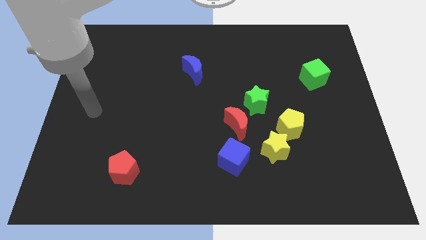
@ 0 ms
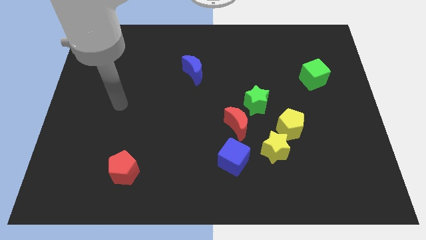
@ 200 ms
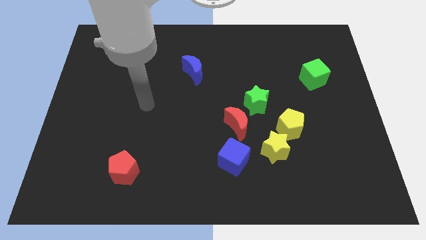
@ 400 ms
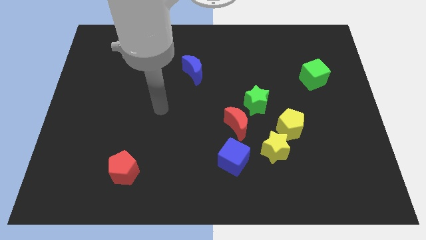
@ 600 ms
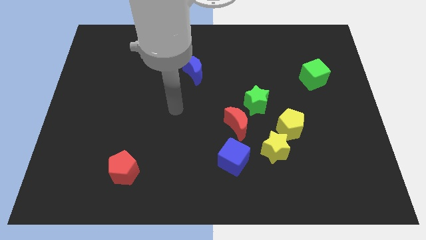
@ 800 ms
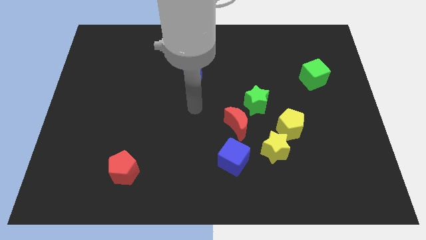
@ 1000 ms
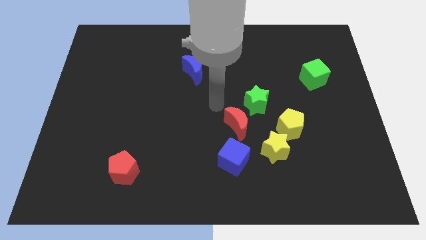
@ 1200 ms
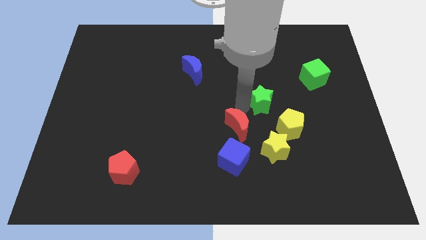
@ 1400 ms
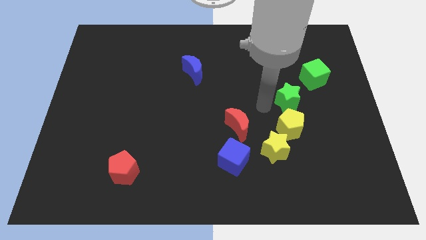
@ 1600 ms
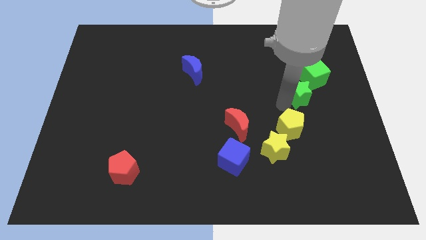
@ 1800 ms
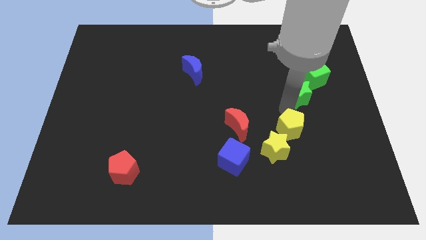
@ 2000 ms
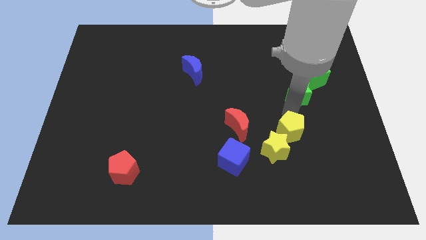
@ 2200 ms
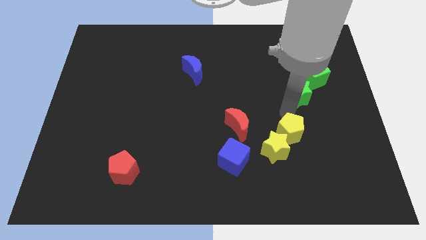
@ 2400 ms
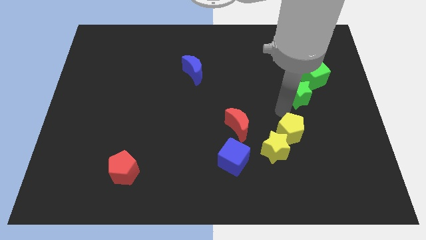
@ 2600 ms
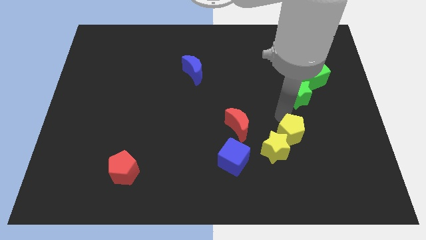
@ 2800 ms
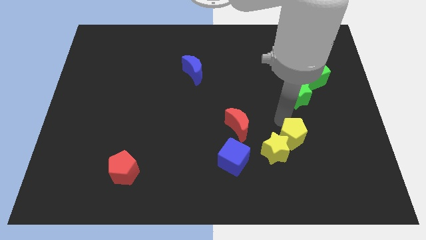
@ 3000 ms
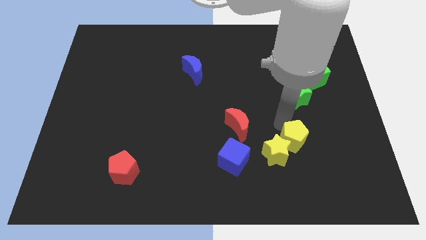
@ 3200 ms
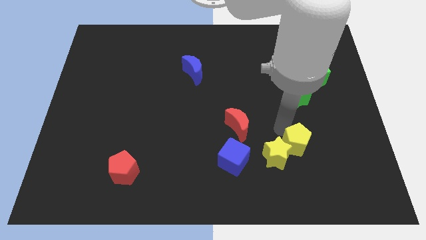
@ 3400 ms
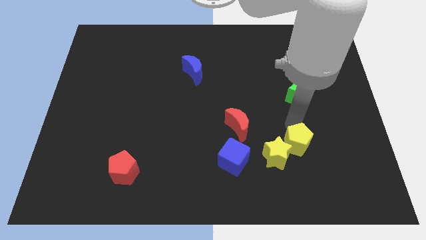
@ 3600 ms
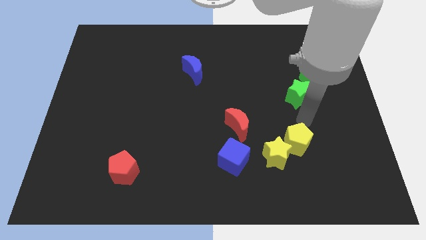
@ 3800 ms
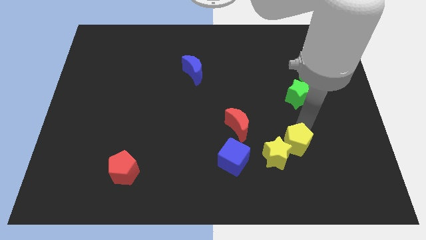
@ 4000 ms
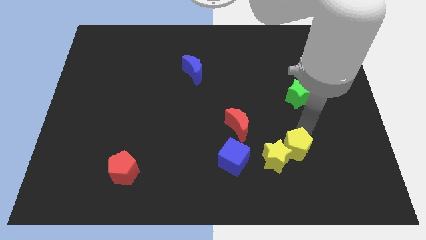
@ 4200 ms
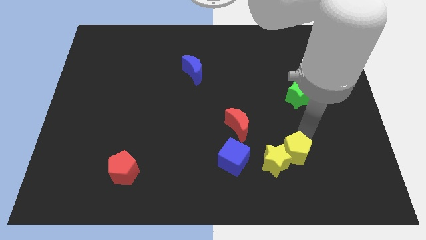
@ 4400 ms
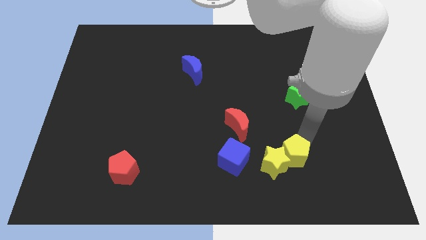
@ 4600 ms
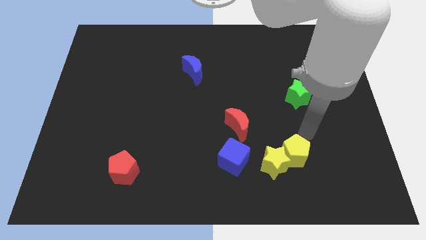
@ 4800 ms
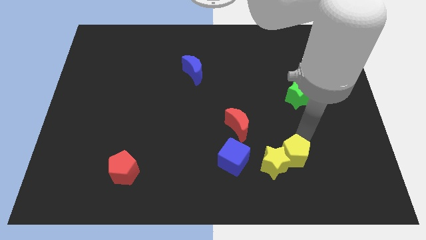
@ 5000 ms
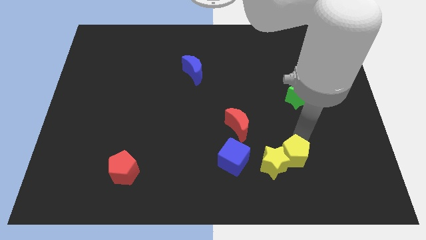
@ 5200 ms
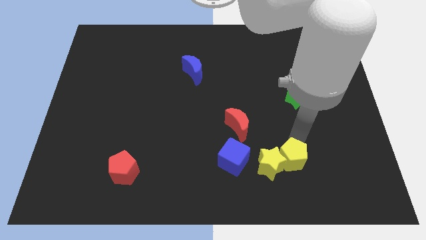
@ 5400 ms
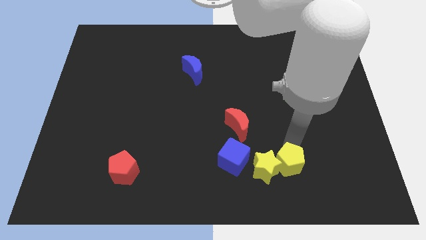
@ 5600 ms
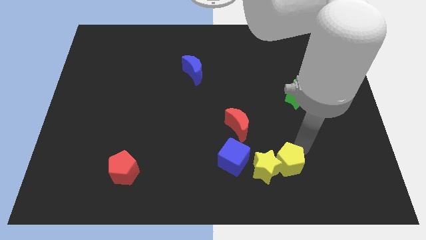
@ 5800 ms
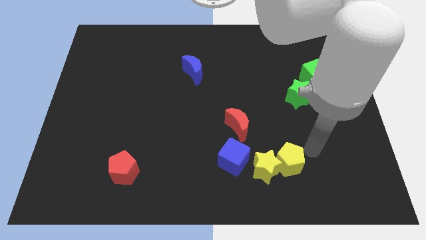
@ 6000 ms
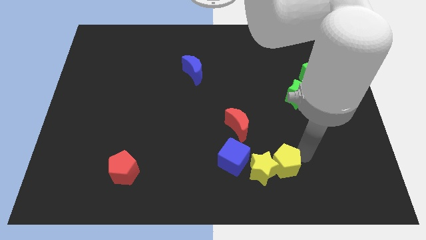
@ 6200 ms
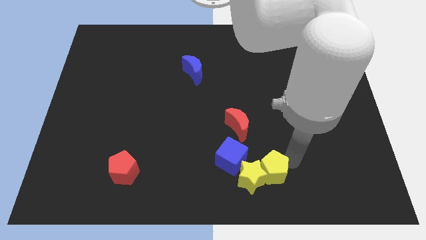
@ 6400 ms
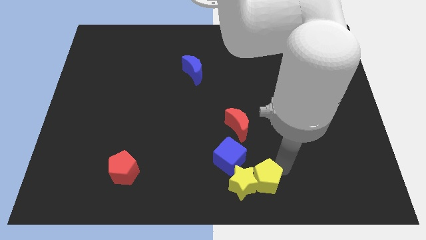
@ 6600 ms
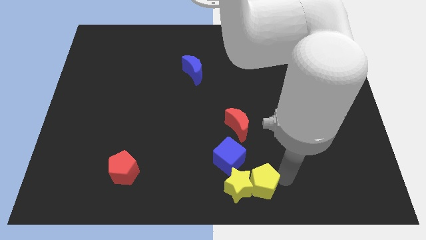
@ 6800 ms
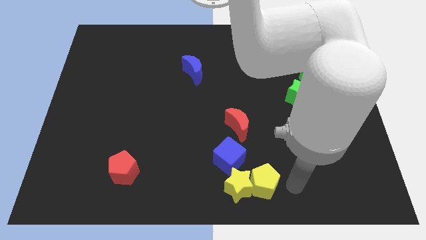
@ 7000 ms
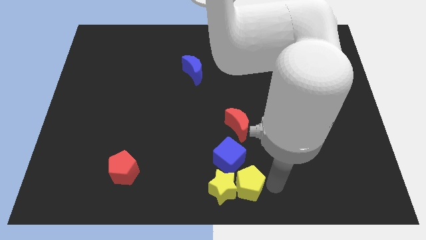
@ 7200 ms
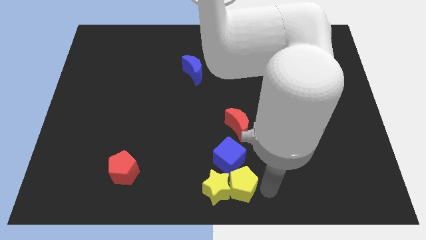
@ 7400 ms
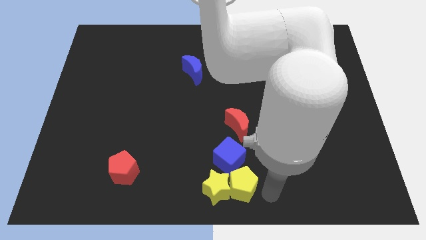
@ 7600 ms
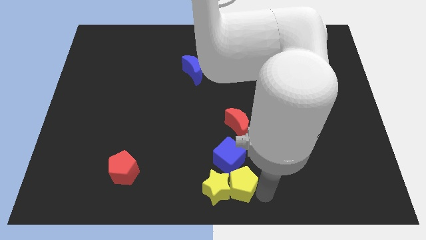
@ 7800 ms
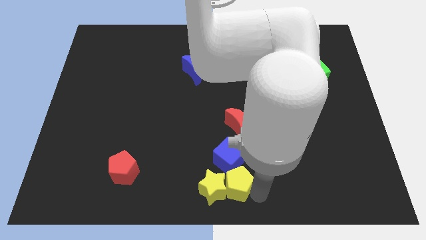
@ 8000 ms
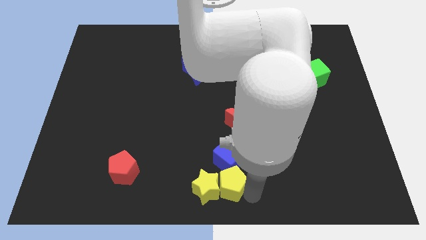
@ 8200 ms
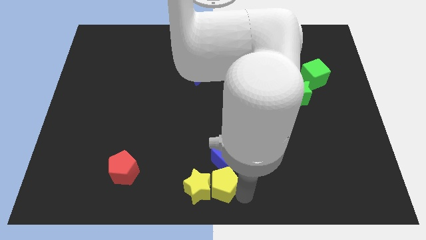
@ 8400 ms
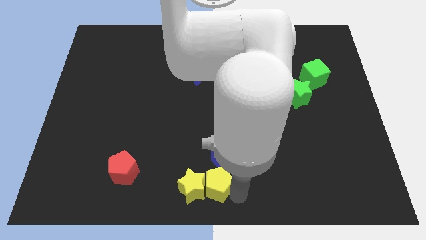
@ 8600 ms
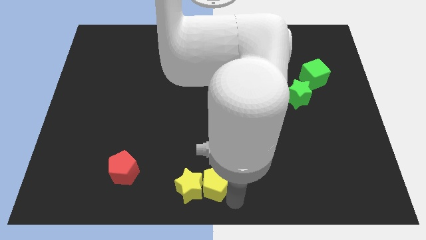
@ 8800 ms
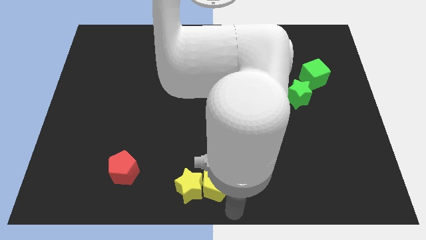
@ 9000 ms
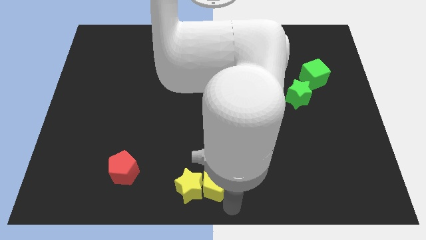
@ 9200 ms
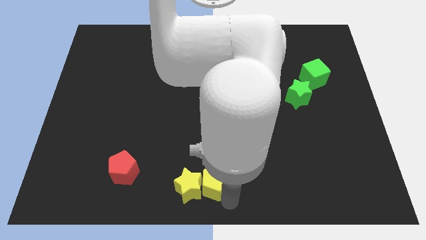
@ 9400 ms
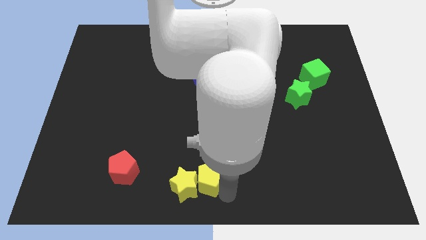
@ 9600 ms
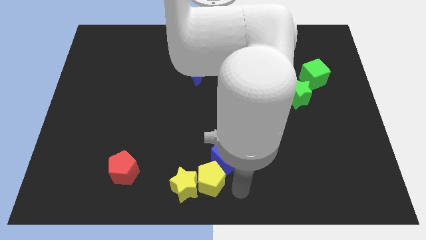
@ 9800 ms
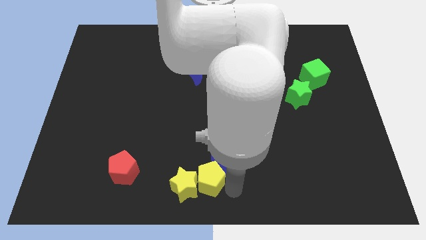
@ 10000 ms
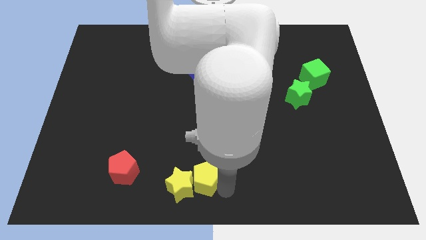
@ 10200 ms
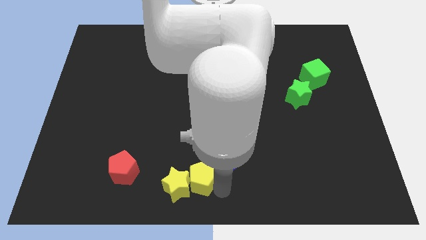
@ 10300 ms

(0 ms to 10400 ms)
push the yellow pentagon to the right of the red pentagon

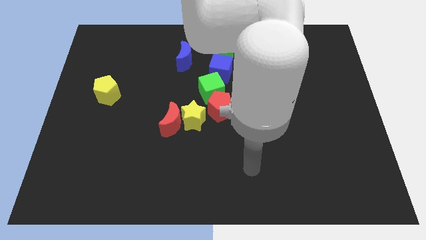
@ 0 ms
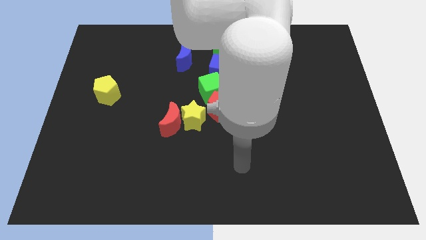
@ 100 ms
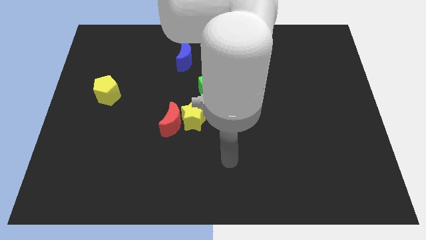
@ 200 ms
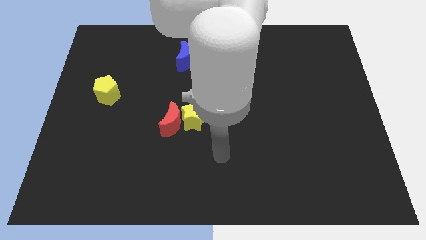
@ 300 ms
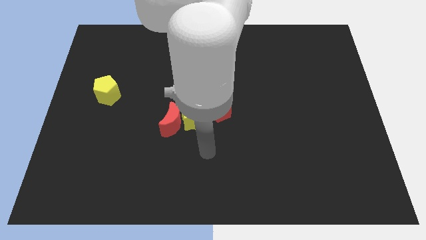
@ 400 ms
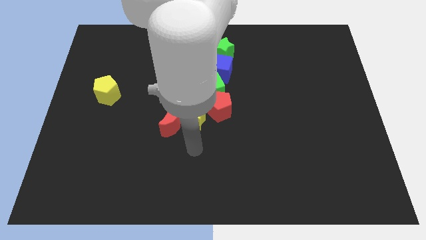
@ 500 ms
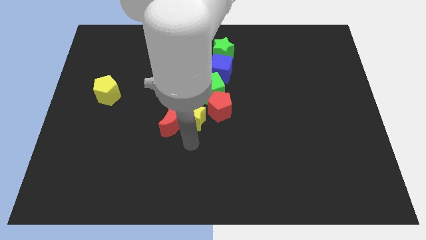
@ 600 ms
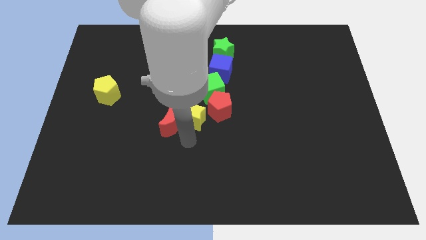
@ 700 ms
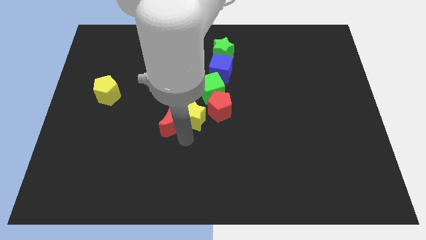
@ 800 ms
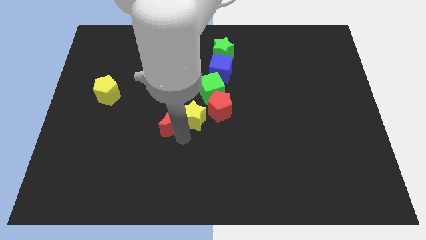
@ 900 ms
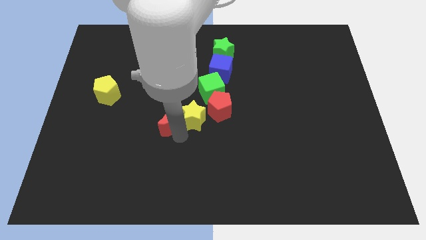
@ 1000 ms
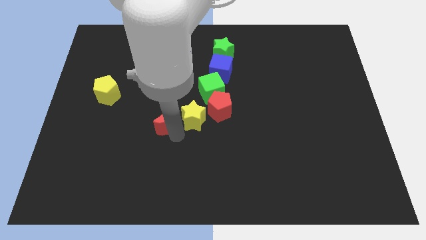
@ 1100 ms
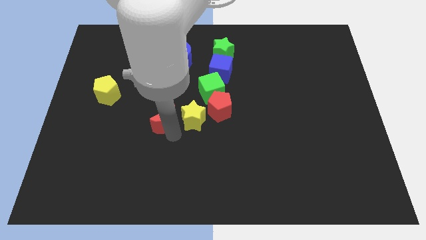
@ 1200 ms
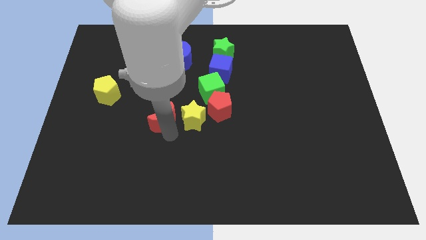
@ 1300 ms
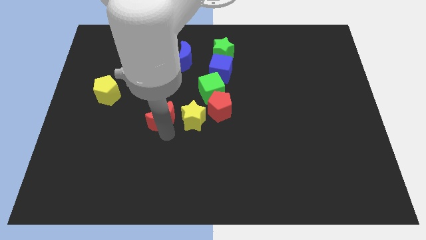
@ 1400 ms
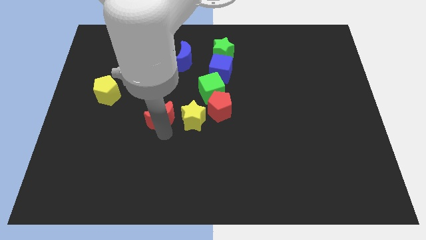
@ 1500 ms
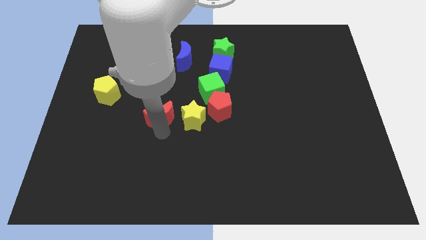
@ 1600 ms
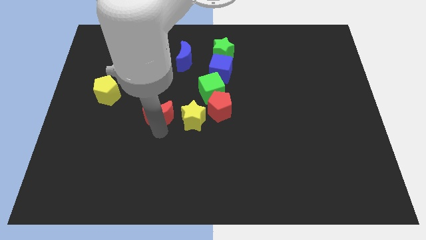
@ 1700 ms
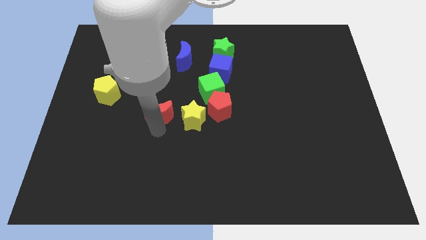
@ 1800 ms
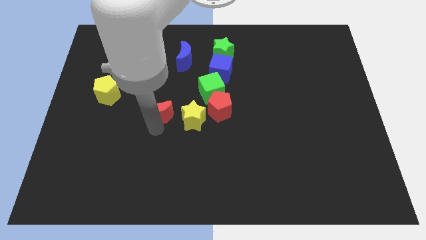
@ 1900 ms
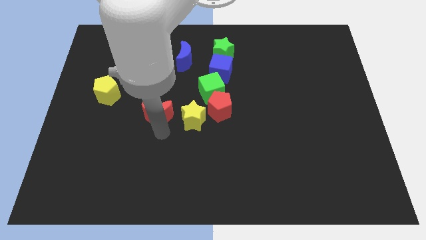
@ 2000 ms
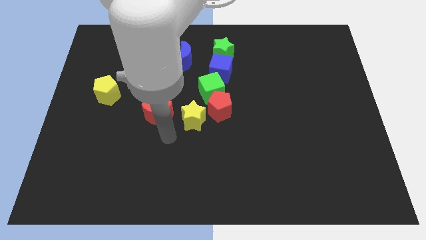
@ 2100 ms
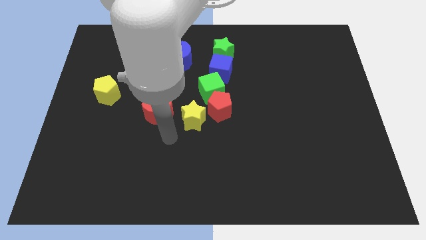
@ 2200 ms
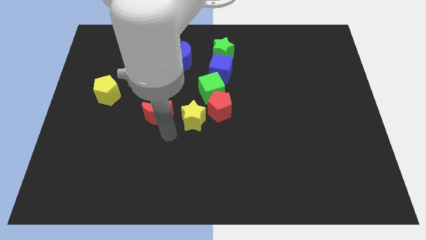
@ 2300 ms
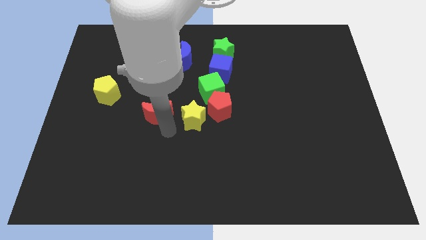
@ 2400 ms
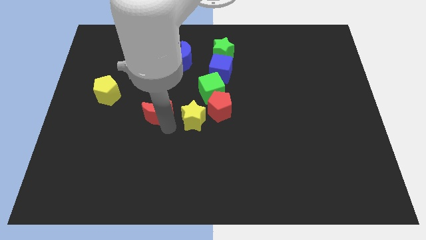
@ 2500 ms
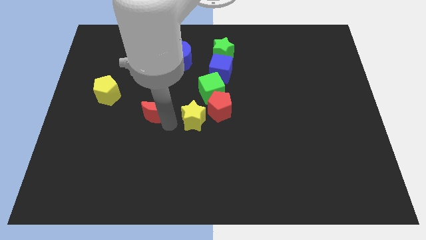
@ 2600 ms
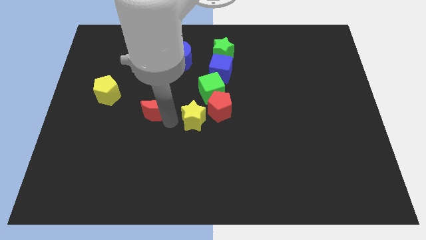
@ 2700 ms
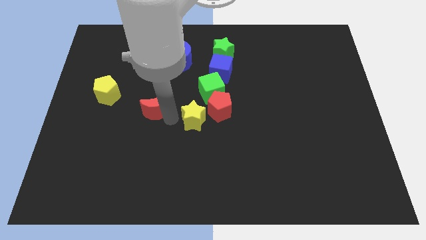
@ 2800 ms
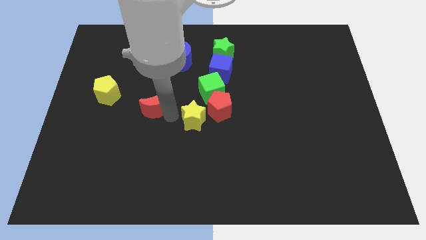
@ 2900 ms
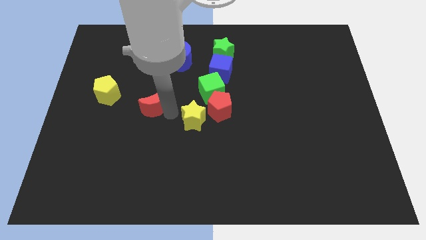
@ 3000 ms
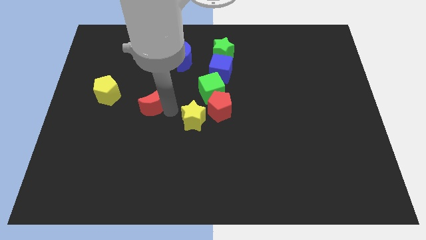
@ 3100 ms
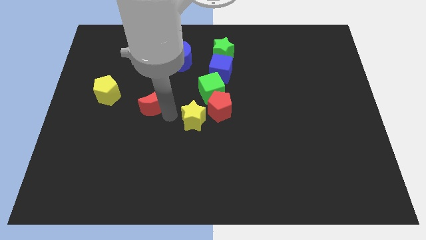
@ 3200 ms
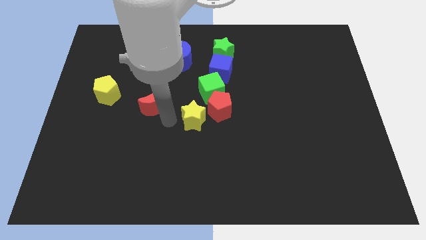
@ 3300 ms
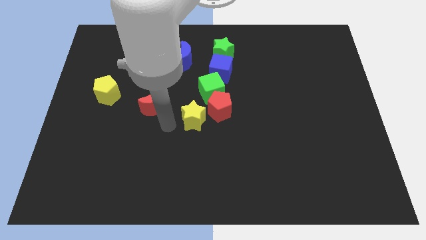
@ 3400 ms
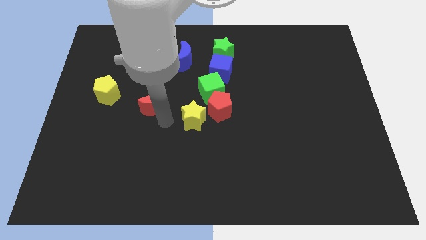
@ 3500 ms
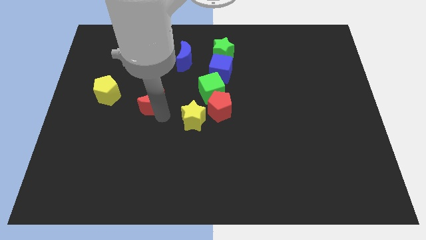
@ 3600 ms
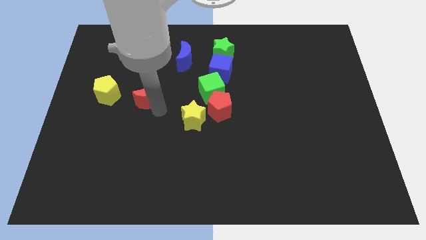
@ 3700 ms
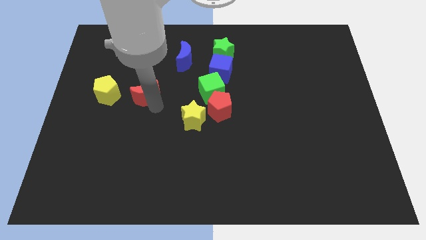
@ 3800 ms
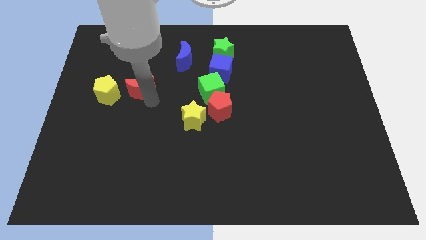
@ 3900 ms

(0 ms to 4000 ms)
push the red moon to the top right side of the yellow pentagon
